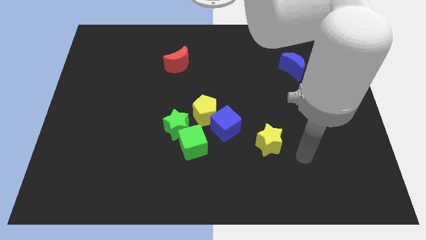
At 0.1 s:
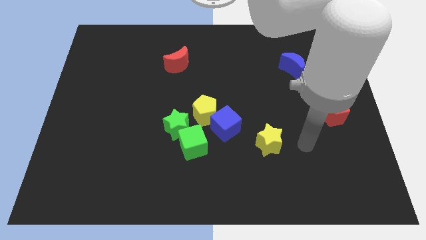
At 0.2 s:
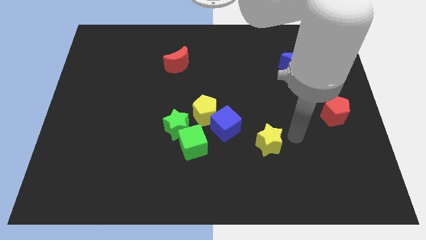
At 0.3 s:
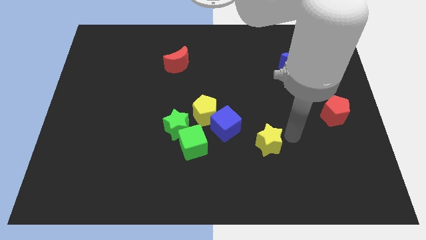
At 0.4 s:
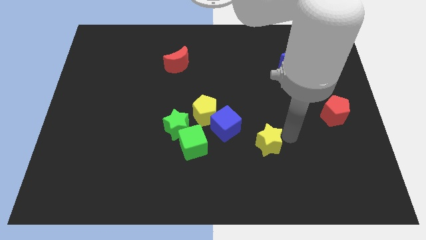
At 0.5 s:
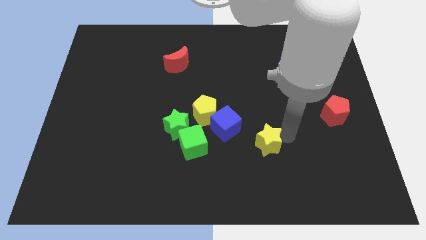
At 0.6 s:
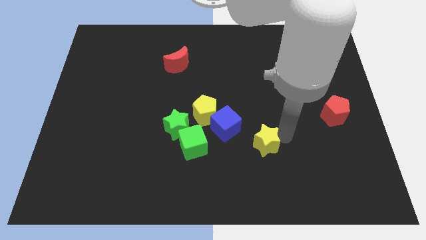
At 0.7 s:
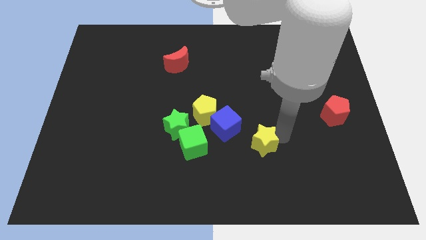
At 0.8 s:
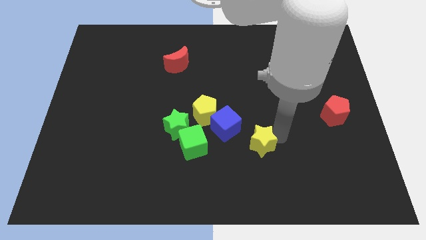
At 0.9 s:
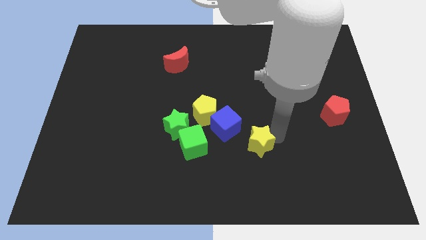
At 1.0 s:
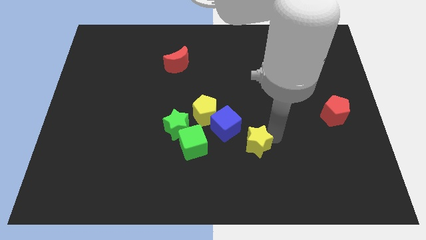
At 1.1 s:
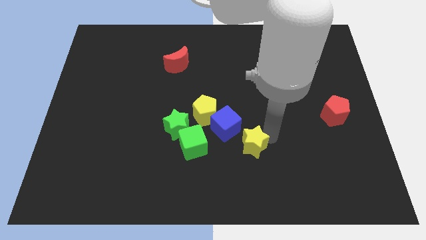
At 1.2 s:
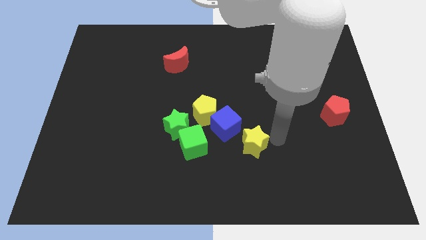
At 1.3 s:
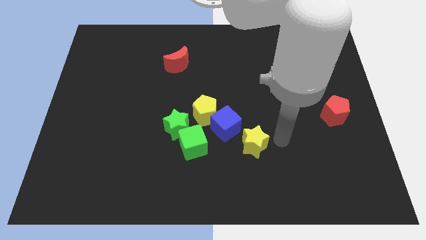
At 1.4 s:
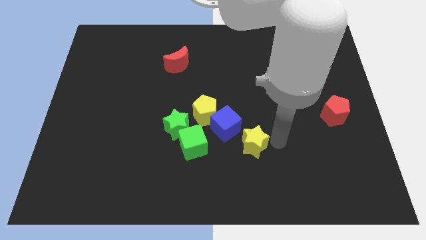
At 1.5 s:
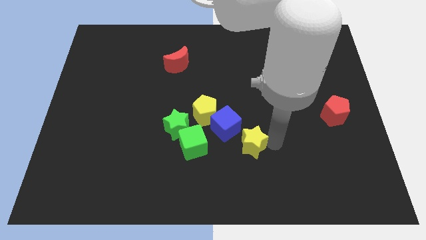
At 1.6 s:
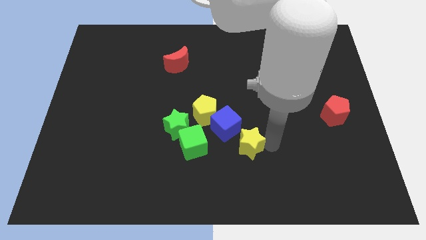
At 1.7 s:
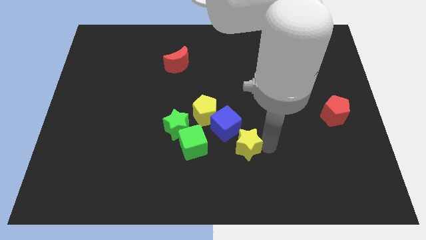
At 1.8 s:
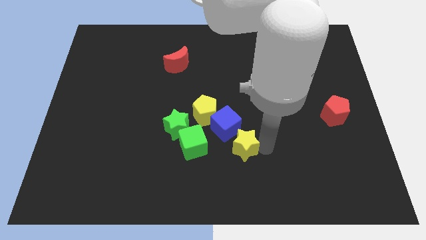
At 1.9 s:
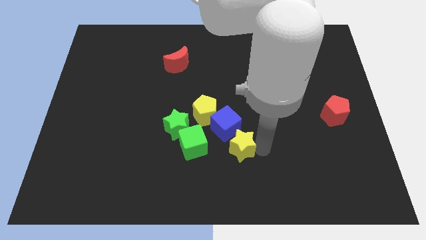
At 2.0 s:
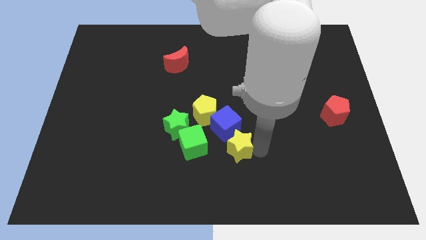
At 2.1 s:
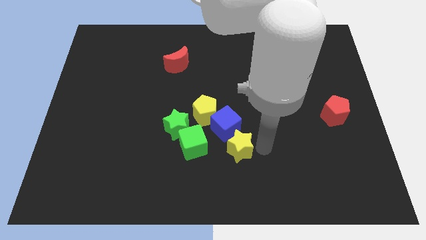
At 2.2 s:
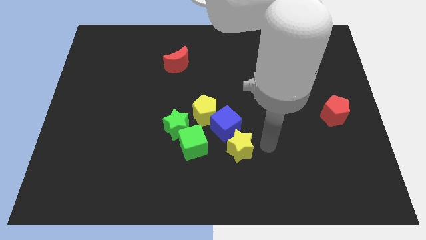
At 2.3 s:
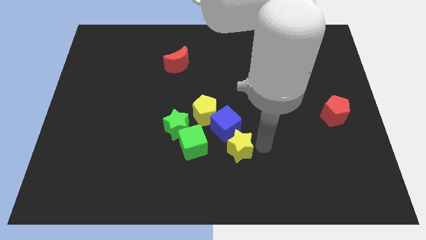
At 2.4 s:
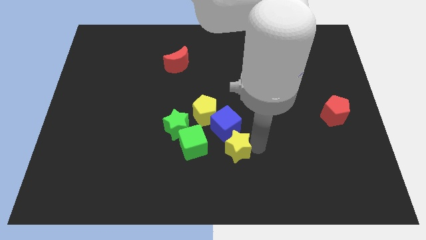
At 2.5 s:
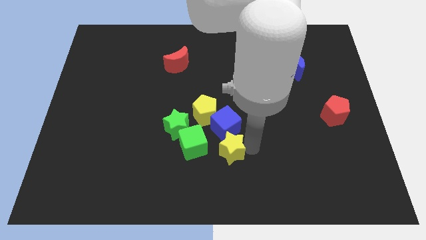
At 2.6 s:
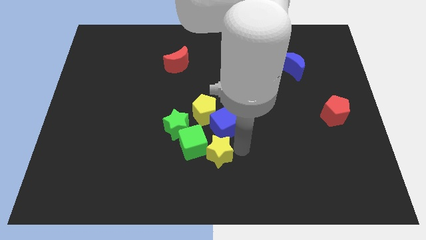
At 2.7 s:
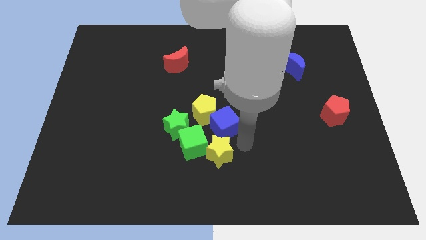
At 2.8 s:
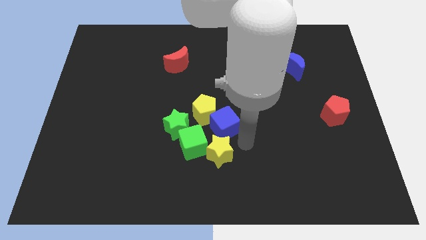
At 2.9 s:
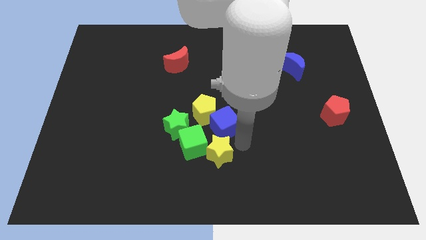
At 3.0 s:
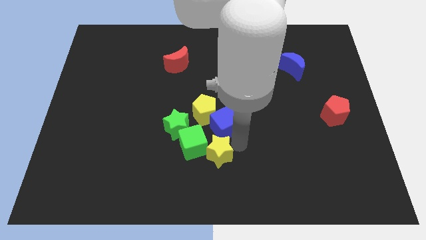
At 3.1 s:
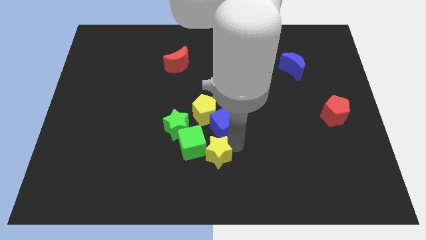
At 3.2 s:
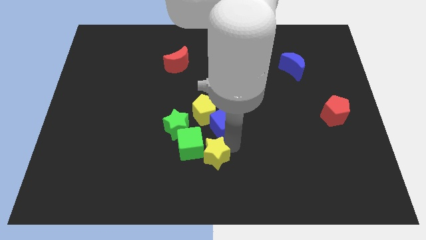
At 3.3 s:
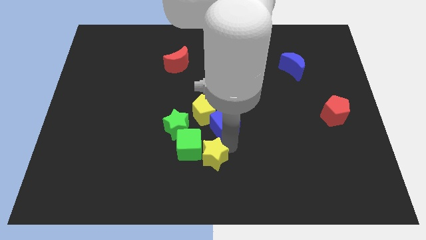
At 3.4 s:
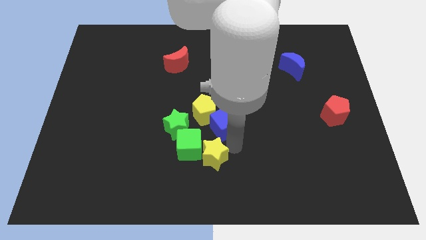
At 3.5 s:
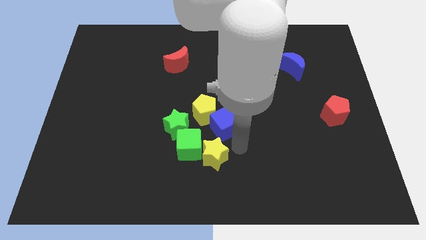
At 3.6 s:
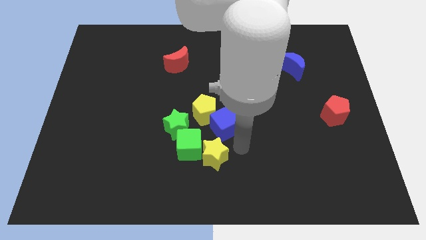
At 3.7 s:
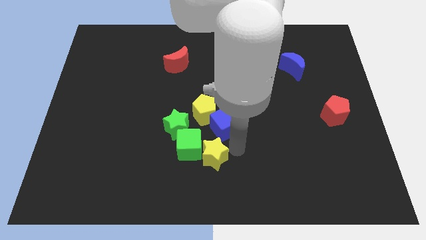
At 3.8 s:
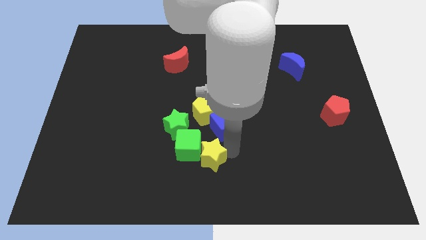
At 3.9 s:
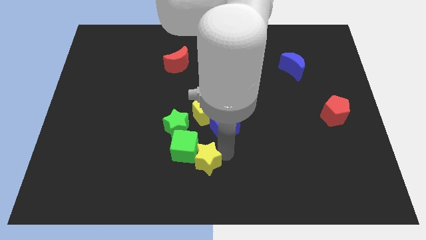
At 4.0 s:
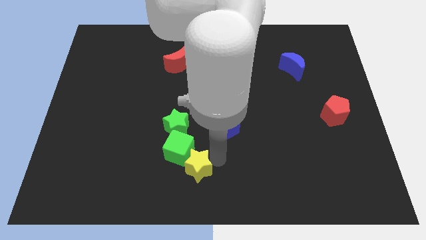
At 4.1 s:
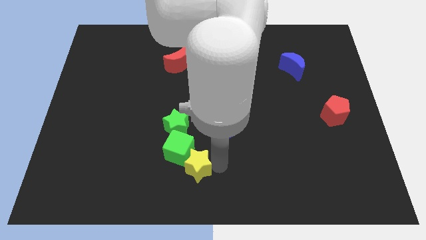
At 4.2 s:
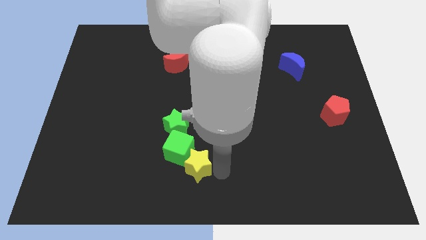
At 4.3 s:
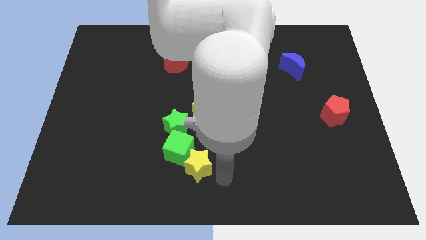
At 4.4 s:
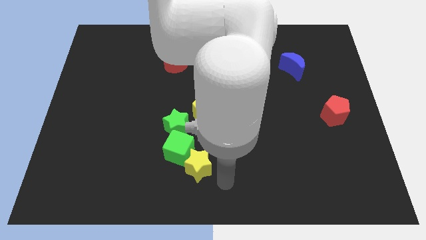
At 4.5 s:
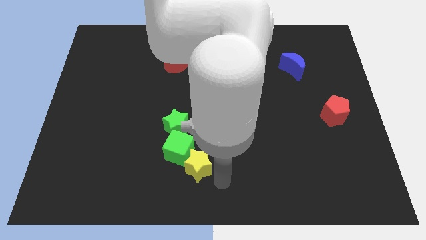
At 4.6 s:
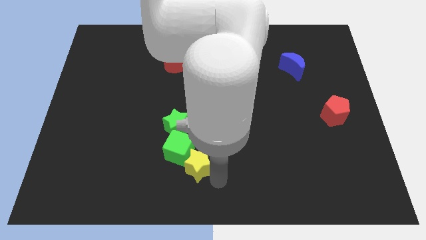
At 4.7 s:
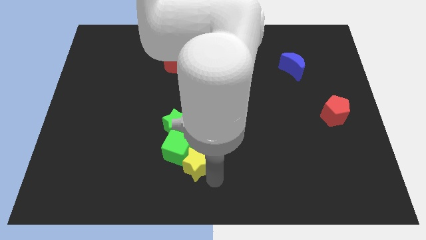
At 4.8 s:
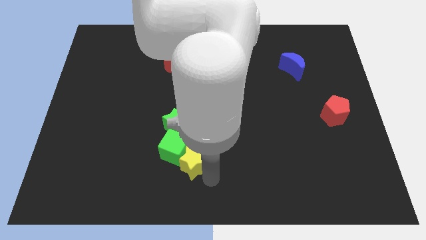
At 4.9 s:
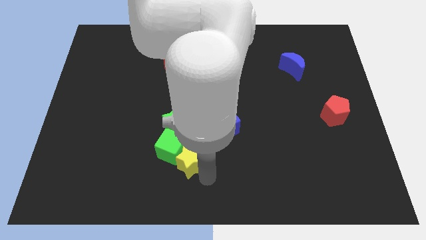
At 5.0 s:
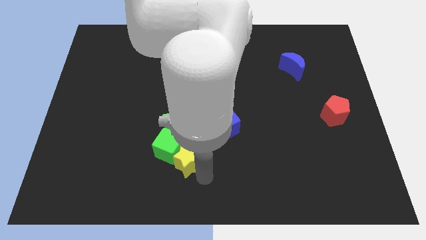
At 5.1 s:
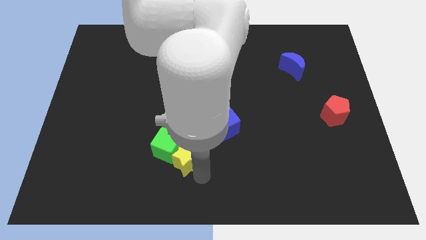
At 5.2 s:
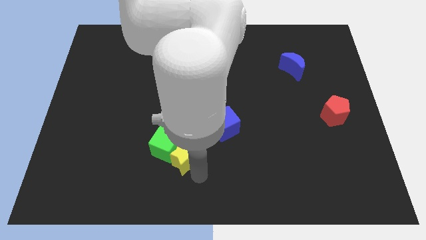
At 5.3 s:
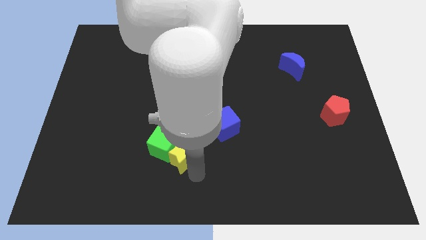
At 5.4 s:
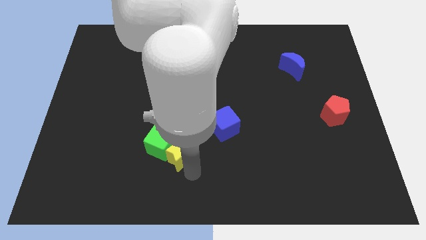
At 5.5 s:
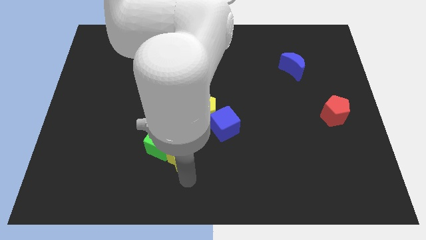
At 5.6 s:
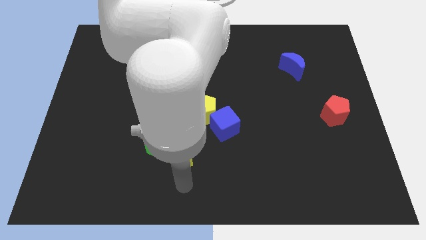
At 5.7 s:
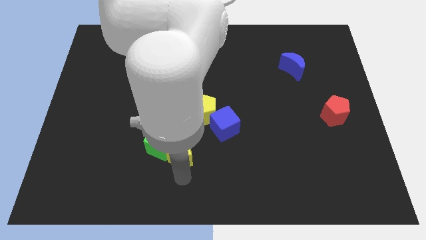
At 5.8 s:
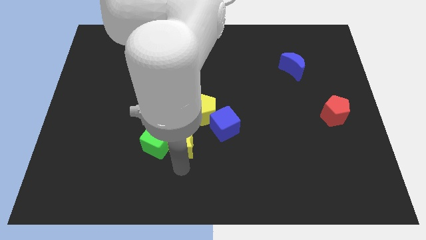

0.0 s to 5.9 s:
push the yellow star to the green star

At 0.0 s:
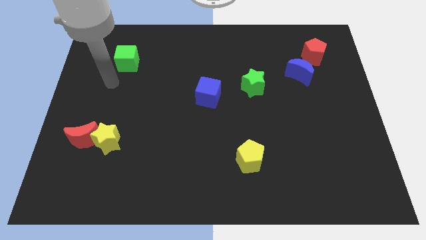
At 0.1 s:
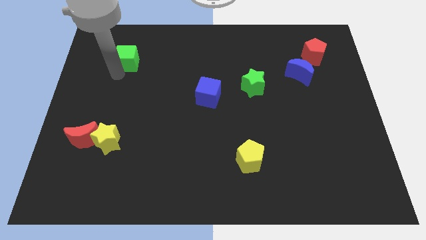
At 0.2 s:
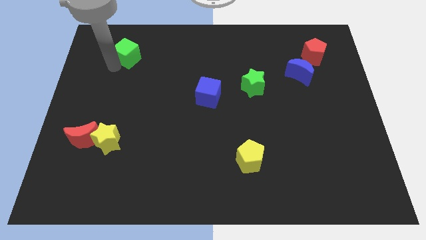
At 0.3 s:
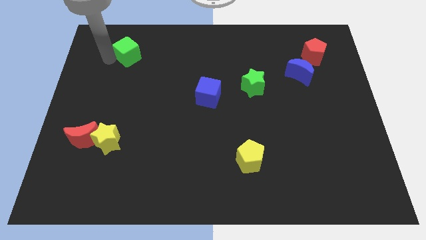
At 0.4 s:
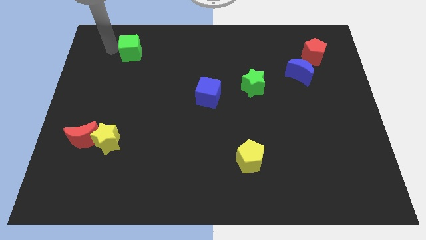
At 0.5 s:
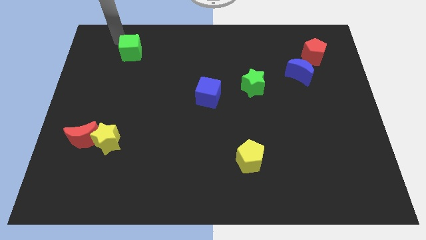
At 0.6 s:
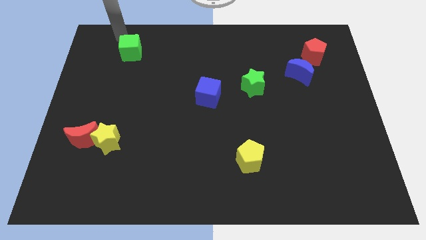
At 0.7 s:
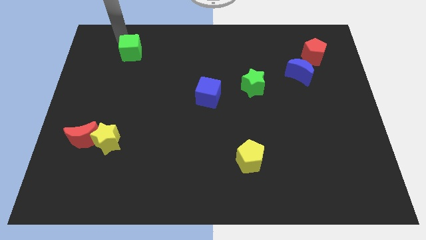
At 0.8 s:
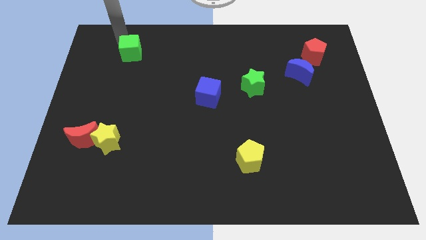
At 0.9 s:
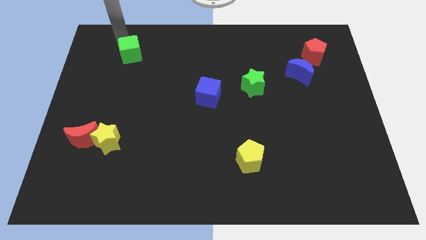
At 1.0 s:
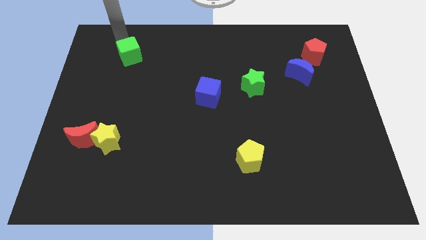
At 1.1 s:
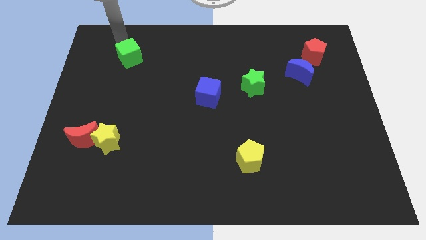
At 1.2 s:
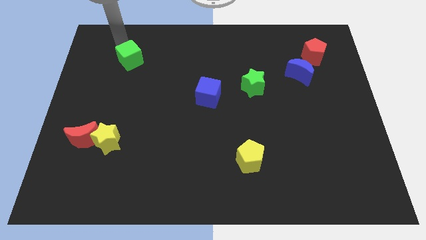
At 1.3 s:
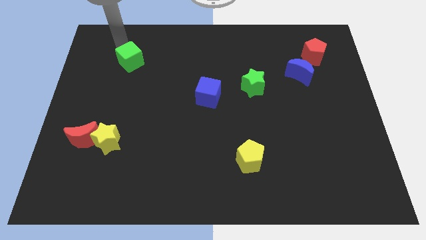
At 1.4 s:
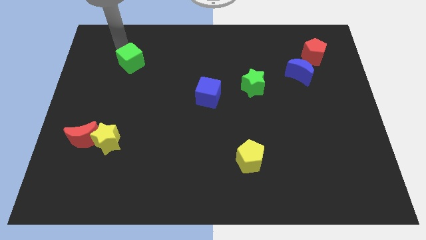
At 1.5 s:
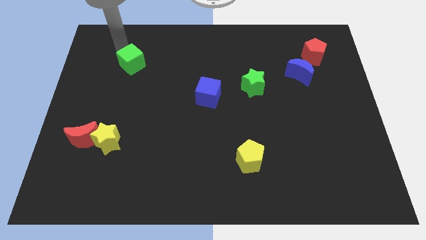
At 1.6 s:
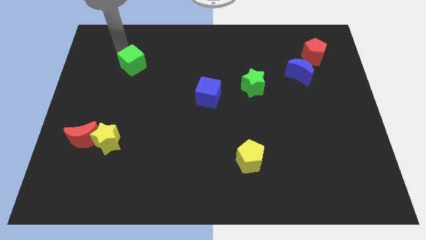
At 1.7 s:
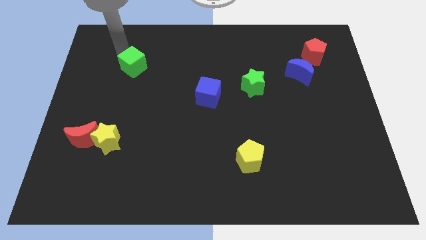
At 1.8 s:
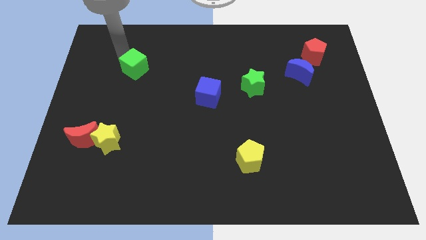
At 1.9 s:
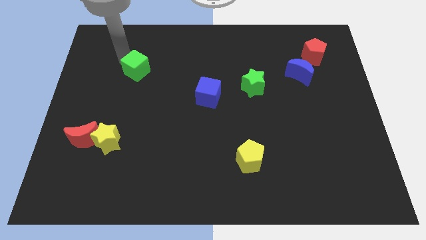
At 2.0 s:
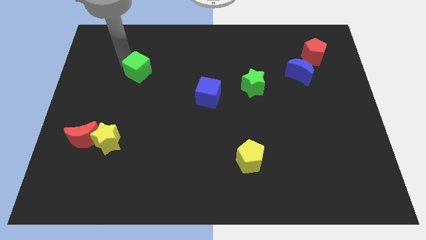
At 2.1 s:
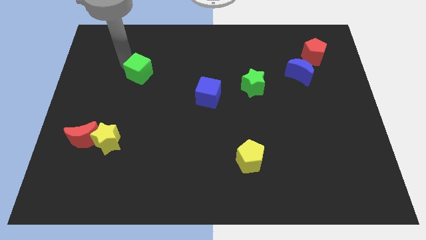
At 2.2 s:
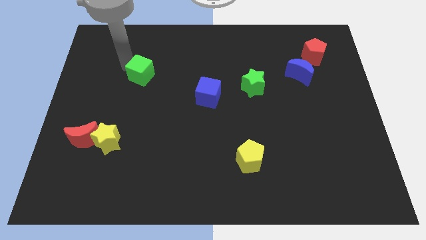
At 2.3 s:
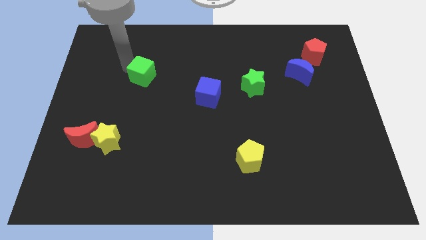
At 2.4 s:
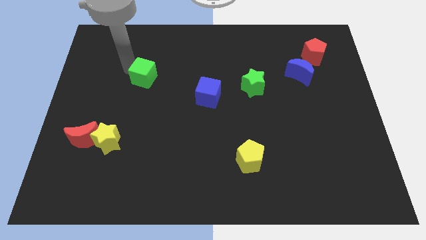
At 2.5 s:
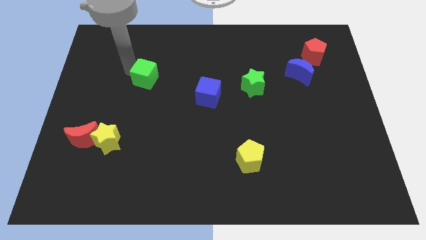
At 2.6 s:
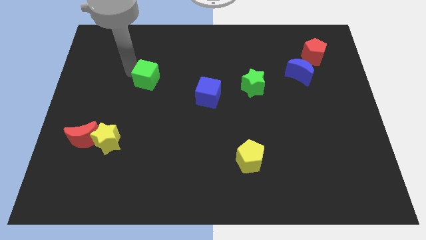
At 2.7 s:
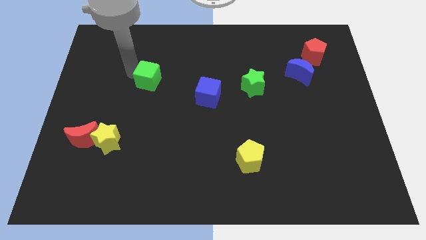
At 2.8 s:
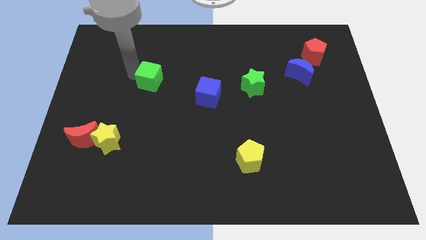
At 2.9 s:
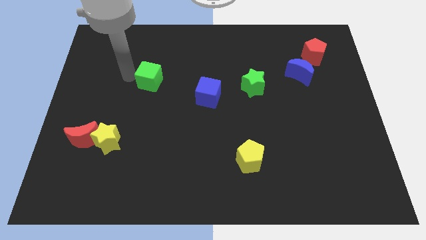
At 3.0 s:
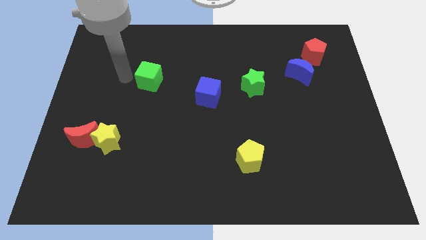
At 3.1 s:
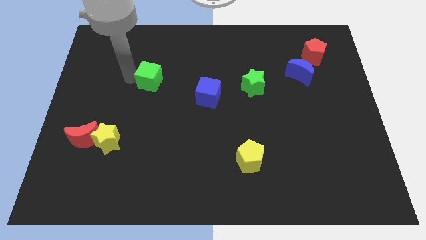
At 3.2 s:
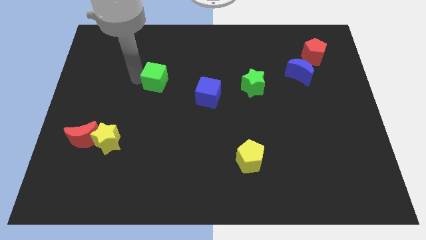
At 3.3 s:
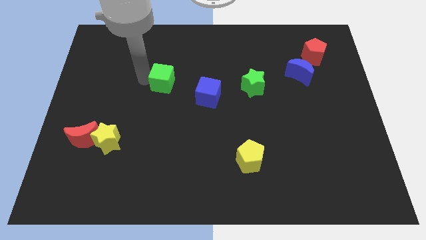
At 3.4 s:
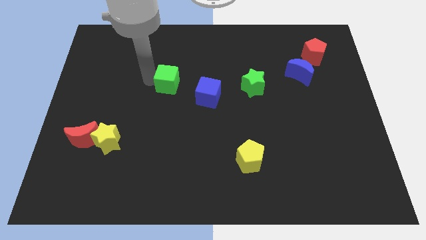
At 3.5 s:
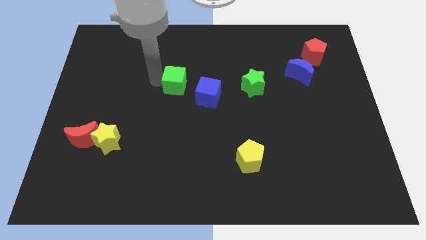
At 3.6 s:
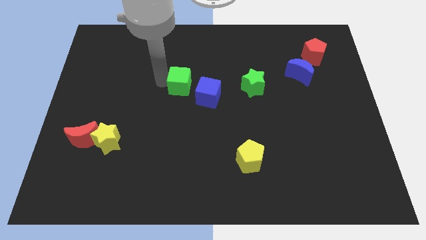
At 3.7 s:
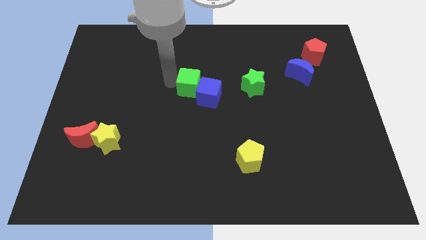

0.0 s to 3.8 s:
push the green cube to the blue cube
